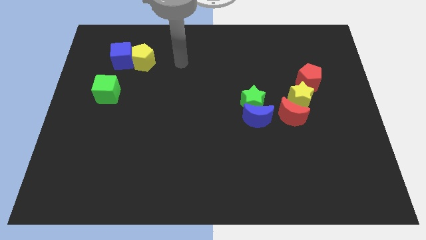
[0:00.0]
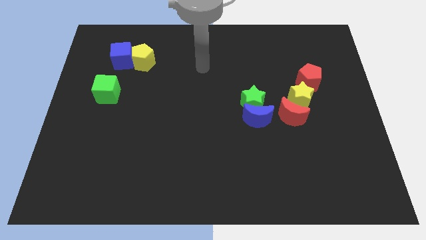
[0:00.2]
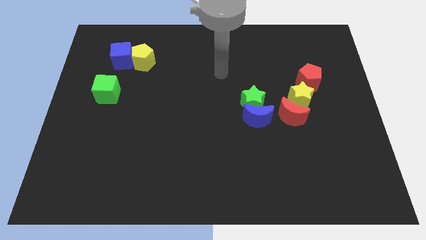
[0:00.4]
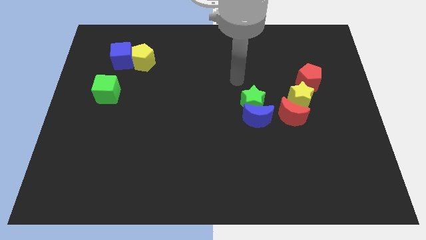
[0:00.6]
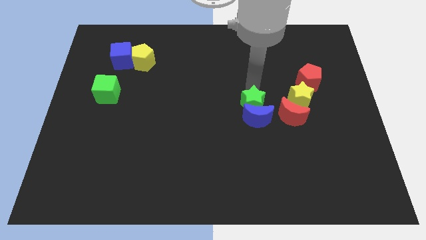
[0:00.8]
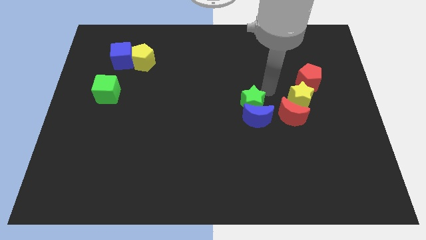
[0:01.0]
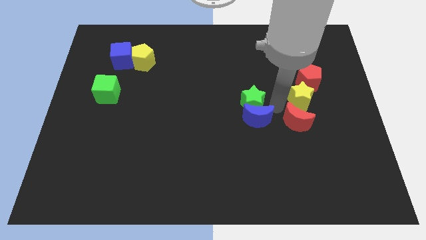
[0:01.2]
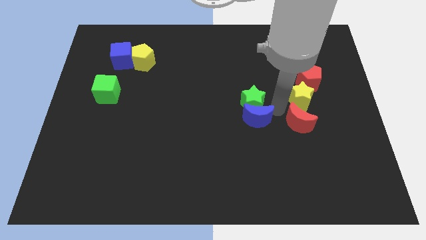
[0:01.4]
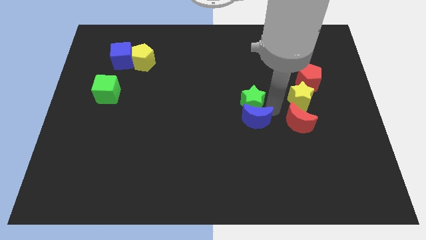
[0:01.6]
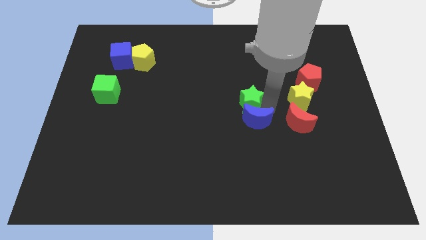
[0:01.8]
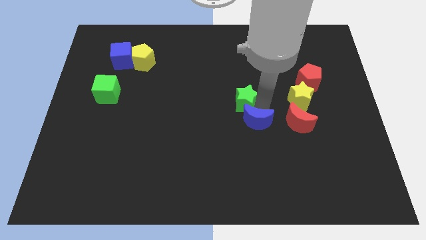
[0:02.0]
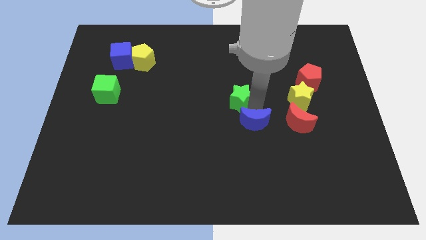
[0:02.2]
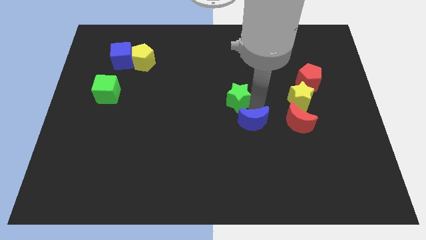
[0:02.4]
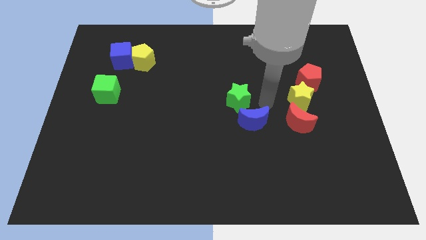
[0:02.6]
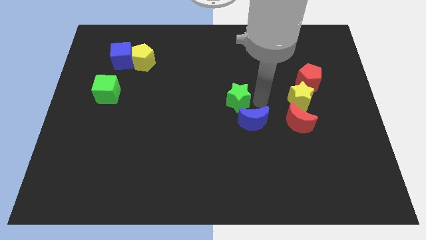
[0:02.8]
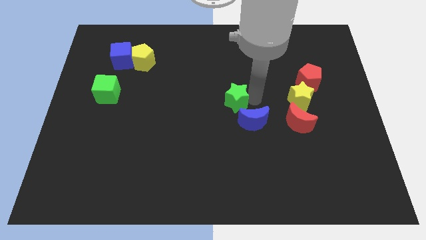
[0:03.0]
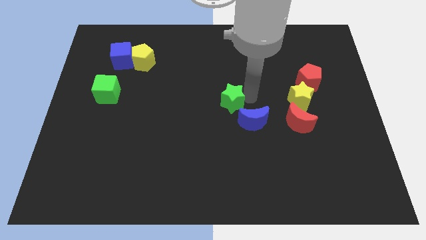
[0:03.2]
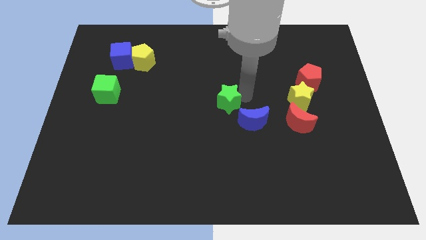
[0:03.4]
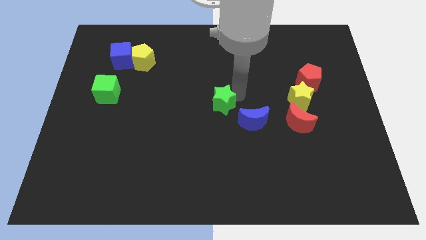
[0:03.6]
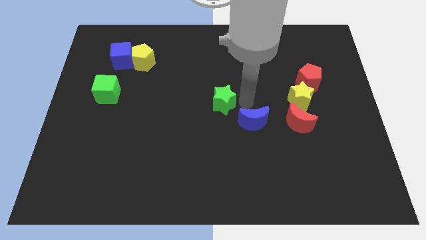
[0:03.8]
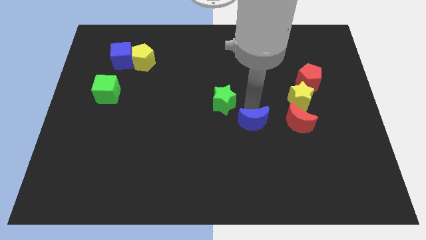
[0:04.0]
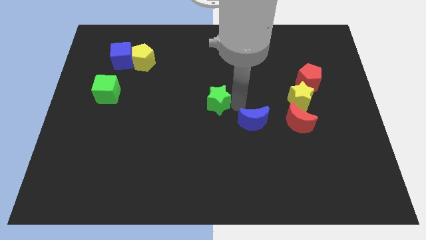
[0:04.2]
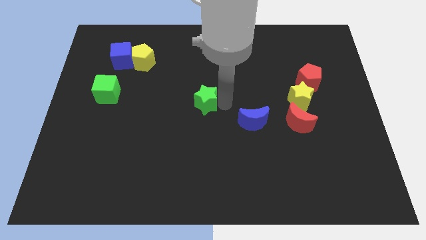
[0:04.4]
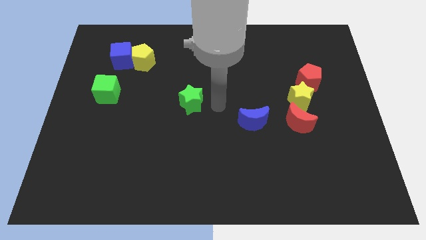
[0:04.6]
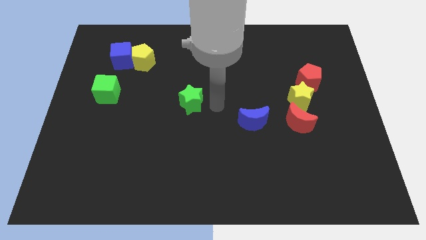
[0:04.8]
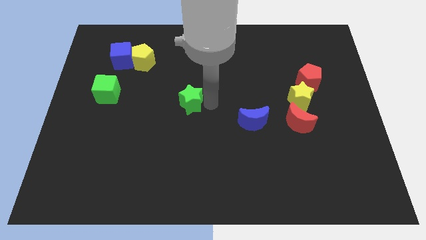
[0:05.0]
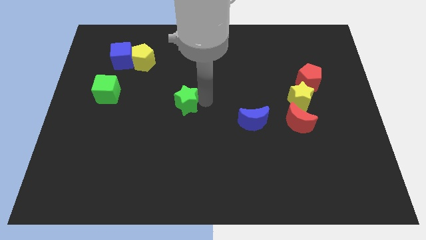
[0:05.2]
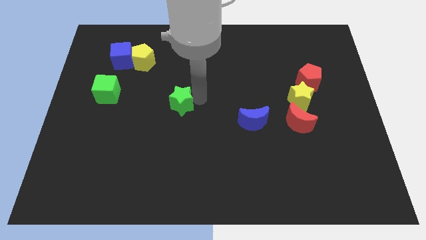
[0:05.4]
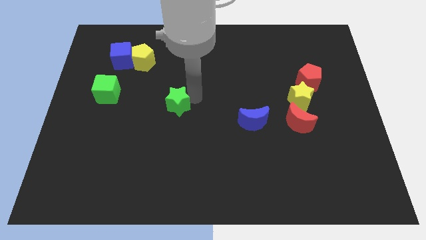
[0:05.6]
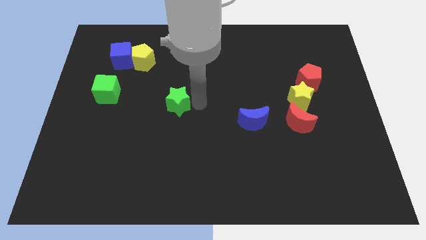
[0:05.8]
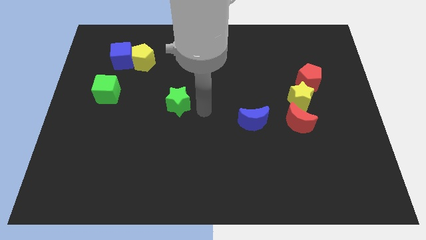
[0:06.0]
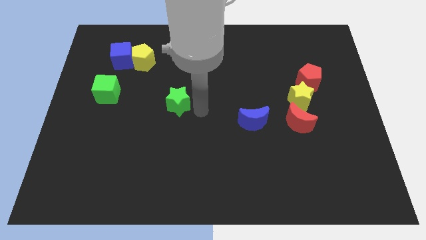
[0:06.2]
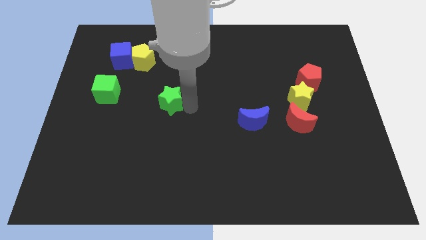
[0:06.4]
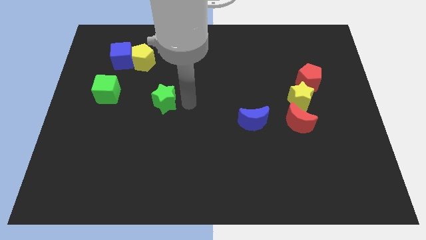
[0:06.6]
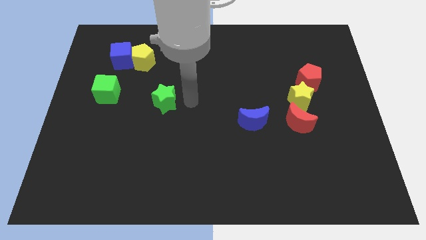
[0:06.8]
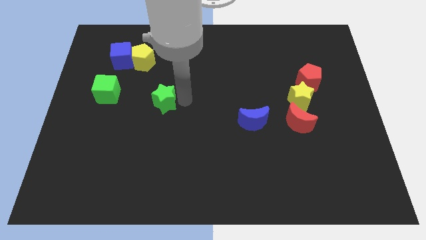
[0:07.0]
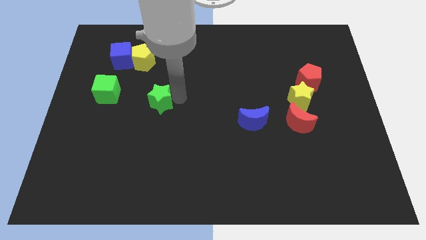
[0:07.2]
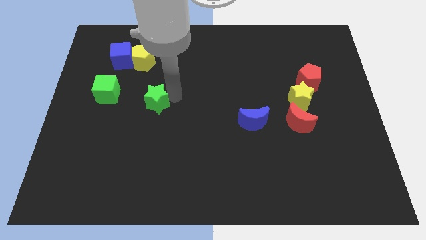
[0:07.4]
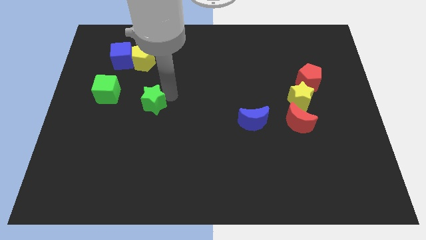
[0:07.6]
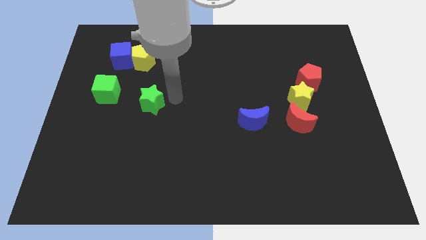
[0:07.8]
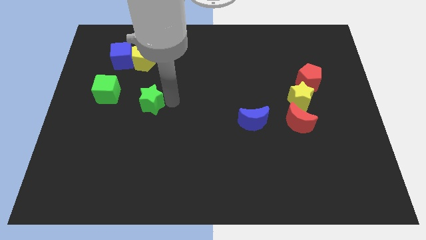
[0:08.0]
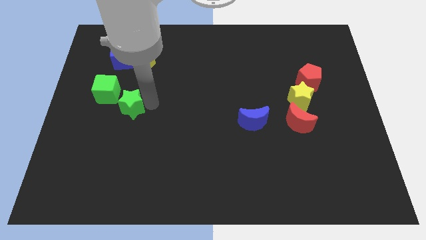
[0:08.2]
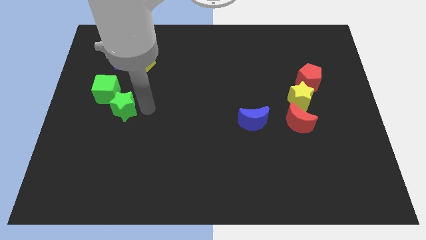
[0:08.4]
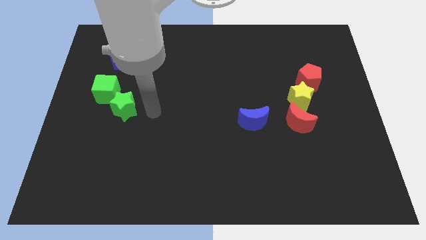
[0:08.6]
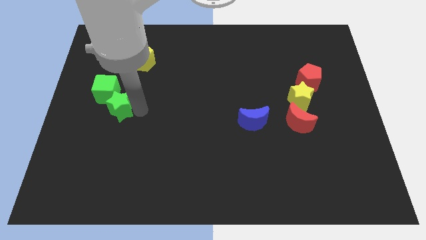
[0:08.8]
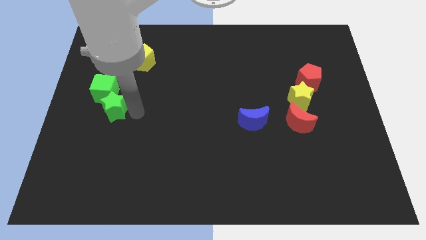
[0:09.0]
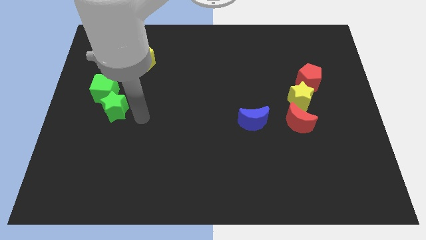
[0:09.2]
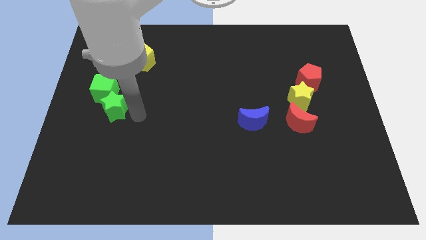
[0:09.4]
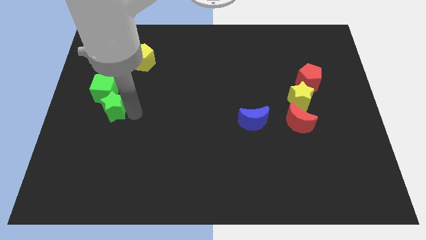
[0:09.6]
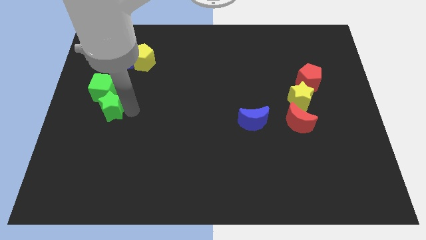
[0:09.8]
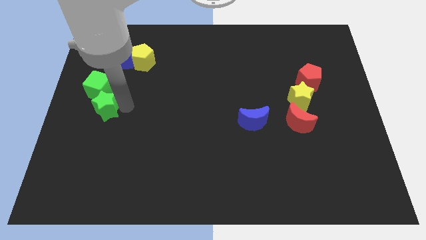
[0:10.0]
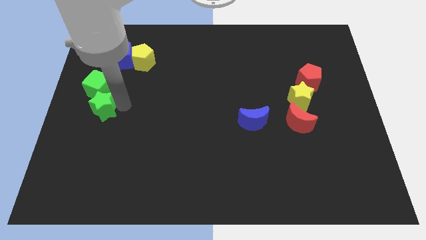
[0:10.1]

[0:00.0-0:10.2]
slide the green star to the center left

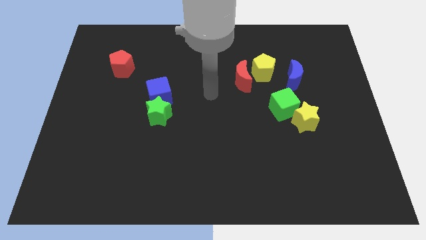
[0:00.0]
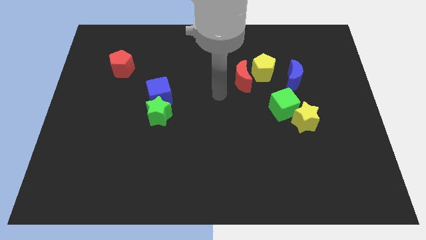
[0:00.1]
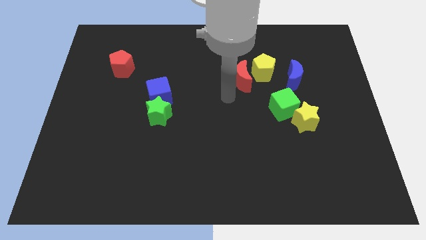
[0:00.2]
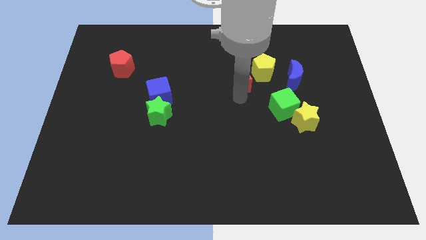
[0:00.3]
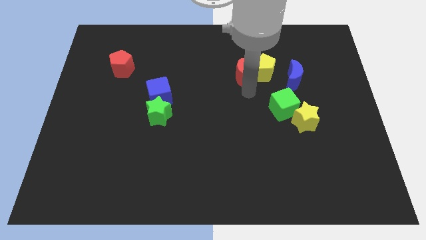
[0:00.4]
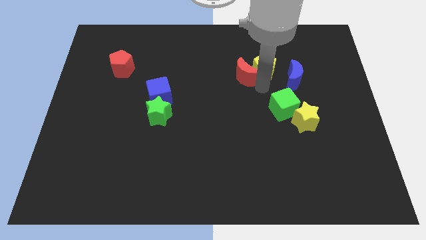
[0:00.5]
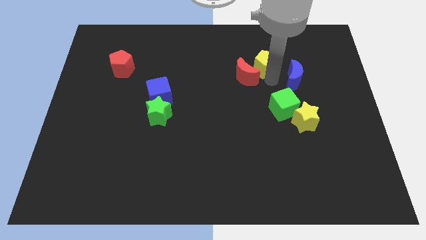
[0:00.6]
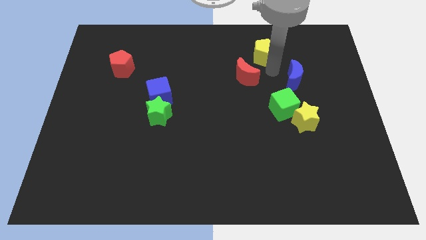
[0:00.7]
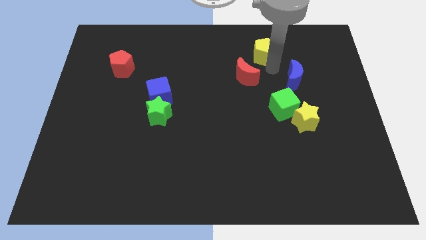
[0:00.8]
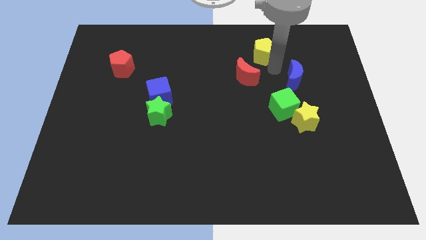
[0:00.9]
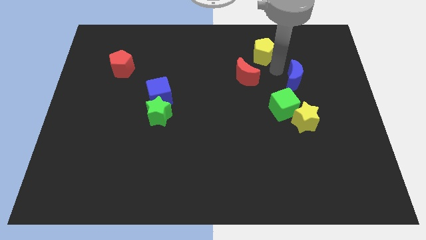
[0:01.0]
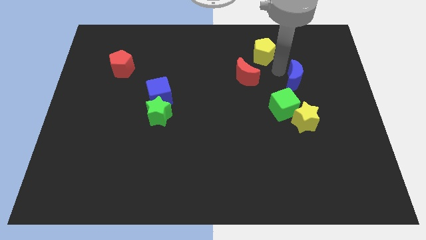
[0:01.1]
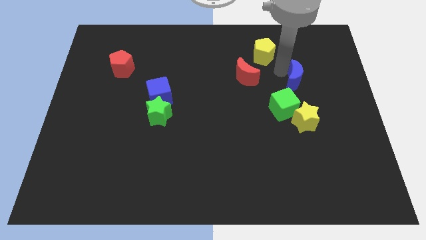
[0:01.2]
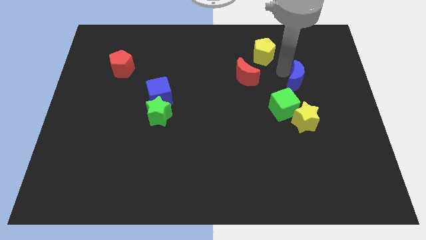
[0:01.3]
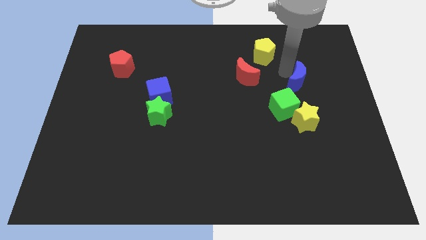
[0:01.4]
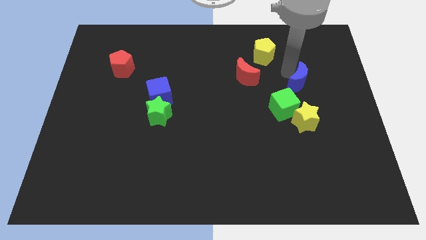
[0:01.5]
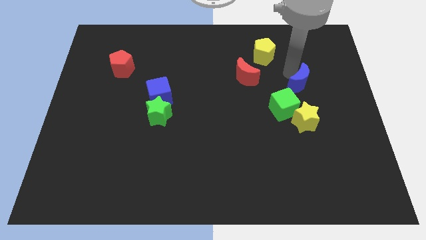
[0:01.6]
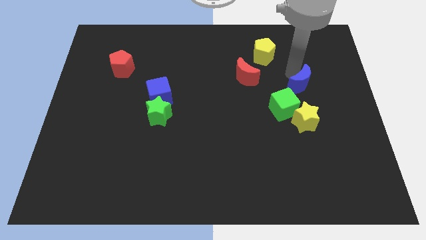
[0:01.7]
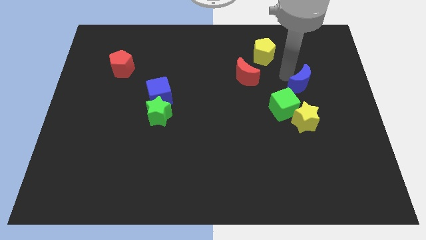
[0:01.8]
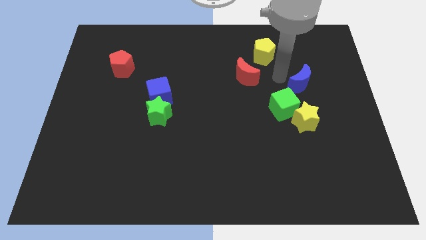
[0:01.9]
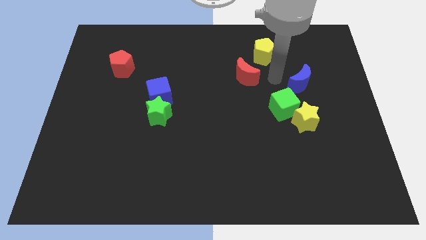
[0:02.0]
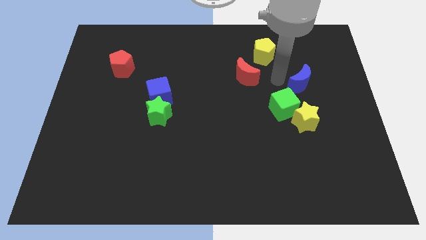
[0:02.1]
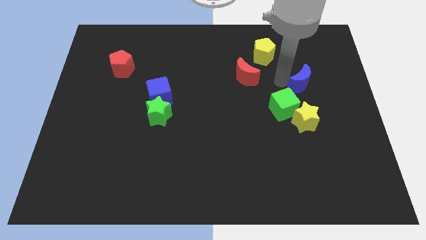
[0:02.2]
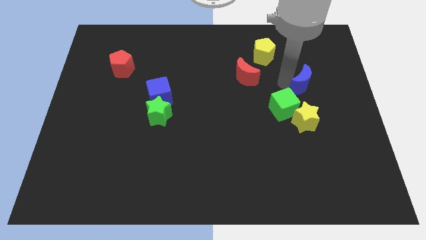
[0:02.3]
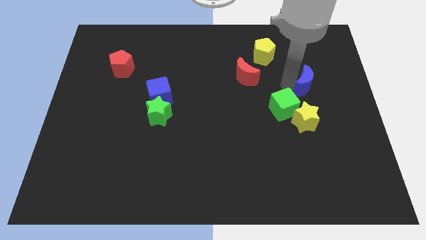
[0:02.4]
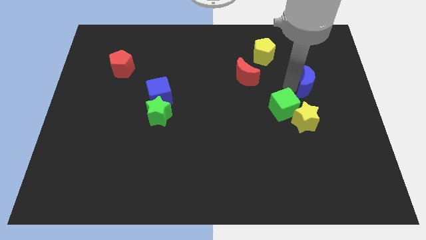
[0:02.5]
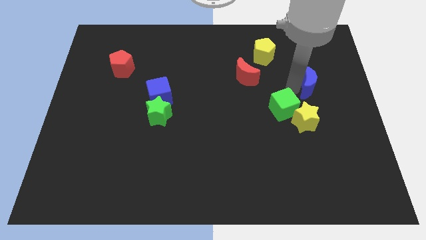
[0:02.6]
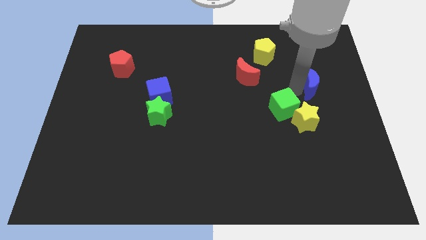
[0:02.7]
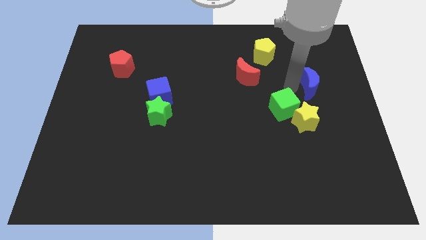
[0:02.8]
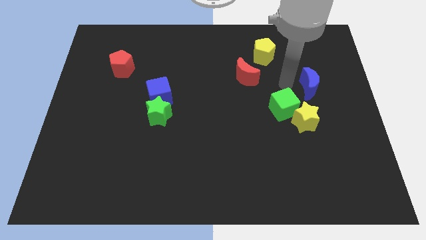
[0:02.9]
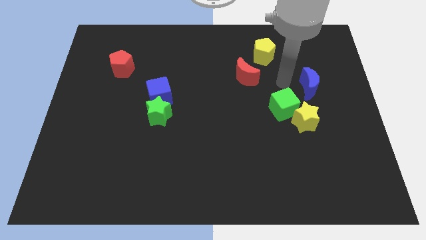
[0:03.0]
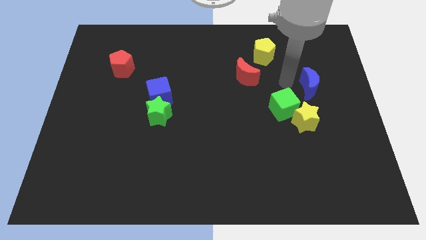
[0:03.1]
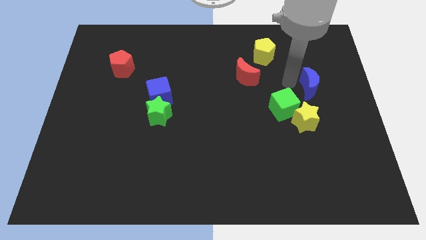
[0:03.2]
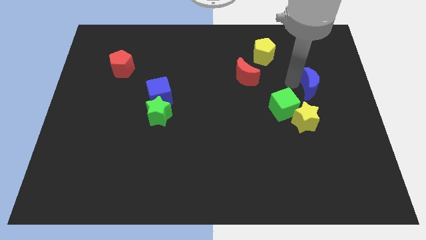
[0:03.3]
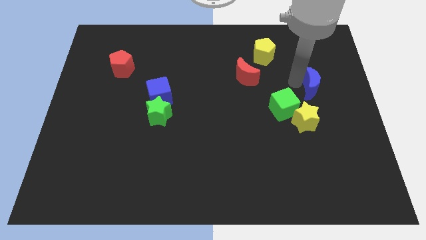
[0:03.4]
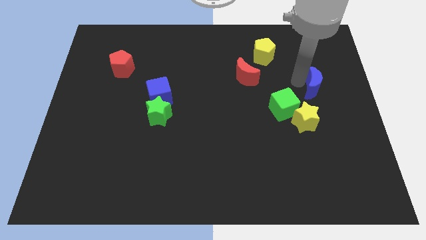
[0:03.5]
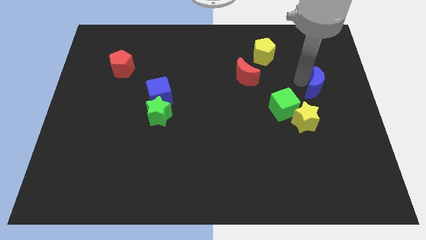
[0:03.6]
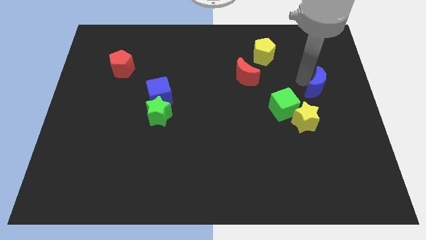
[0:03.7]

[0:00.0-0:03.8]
move the blue moon to the right side of the board
